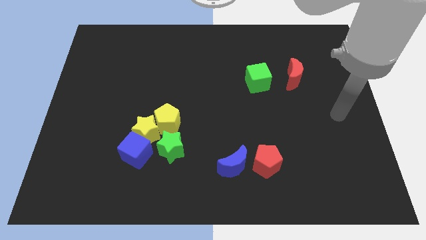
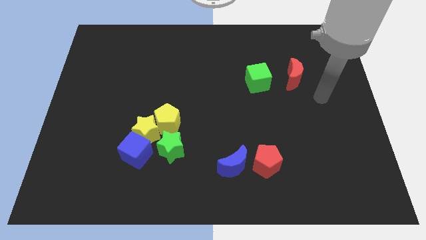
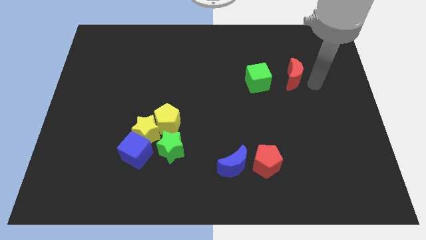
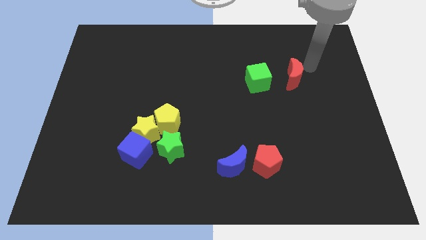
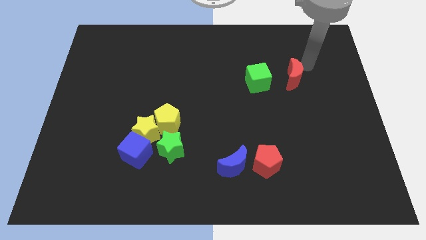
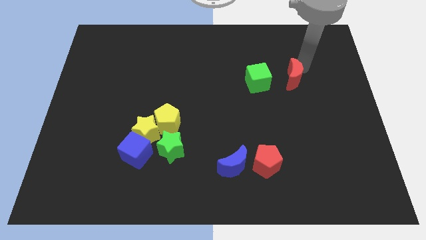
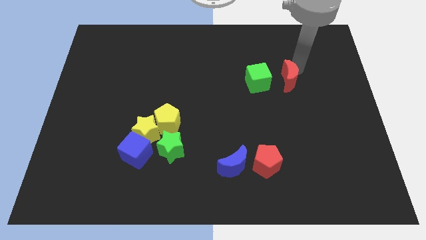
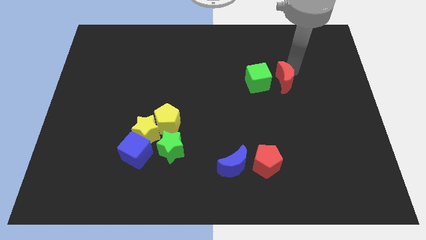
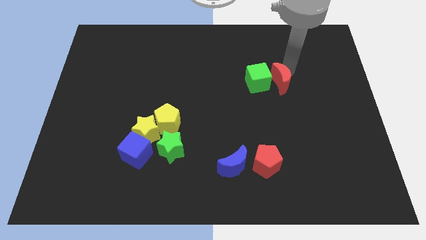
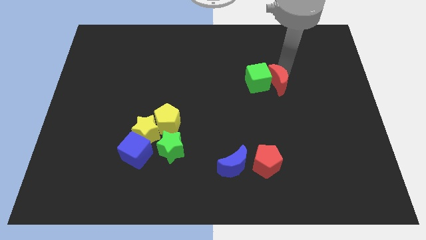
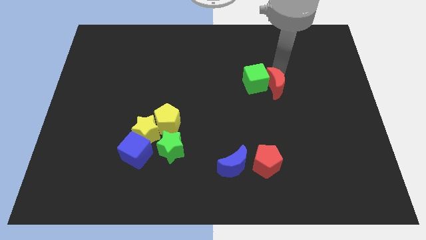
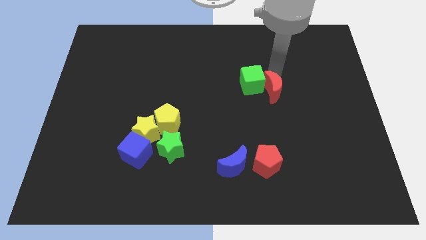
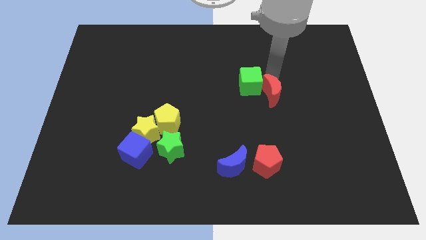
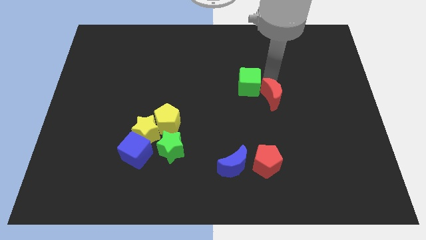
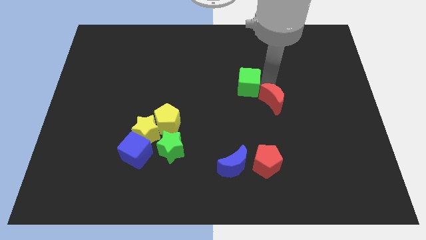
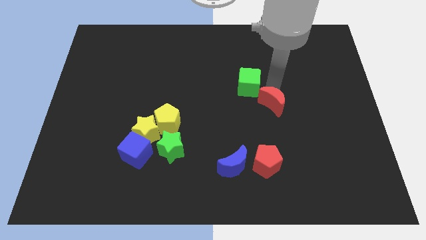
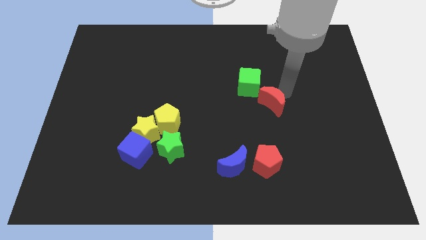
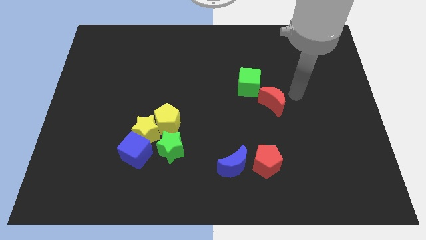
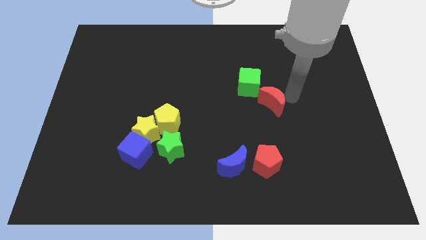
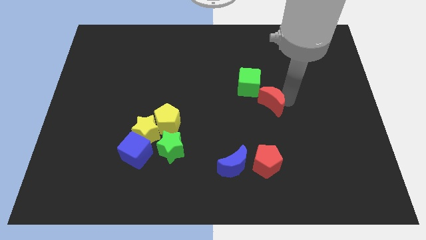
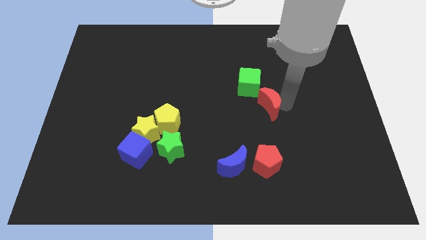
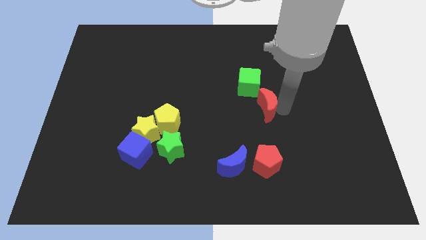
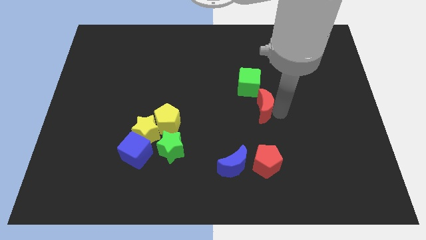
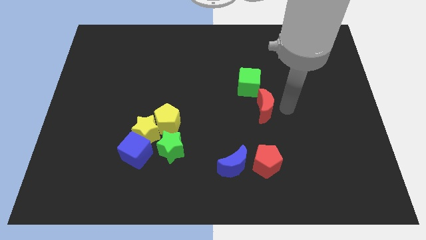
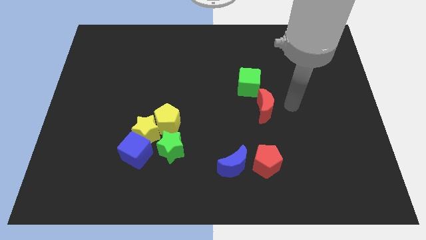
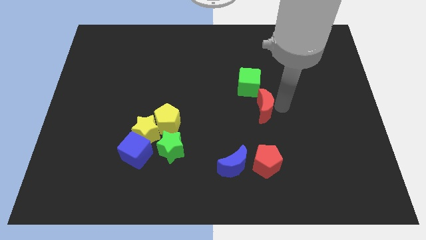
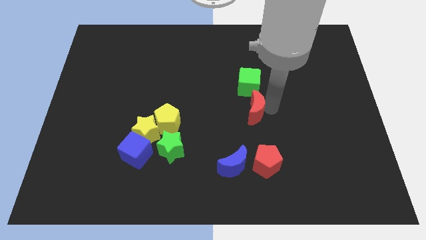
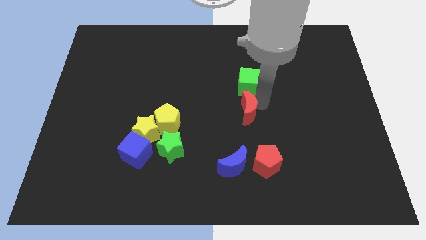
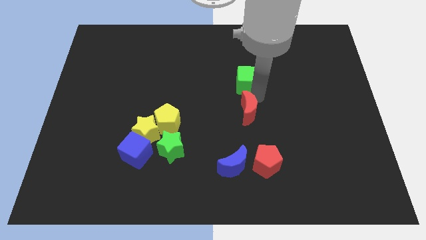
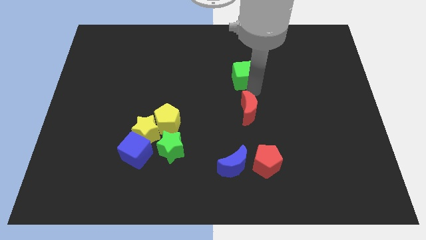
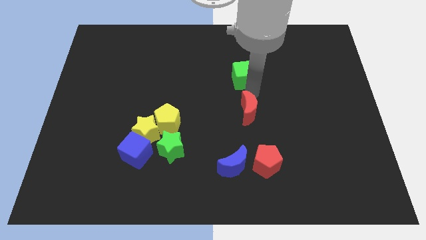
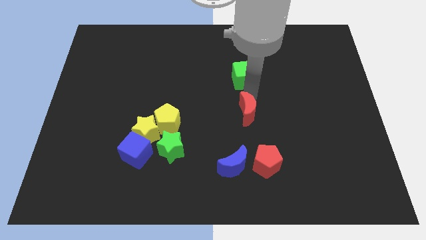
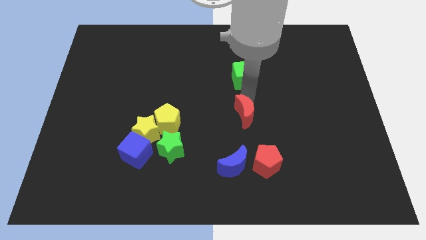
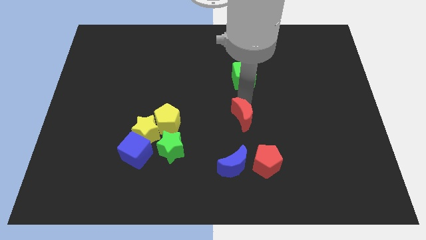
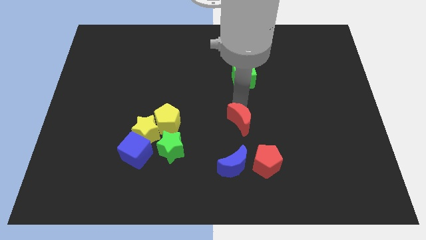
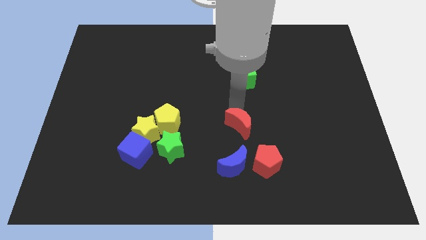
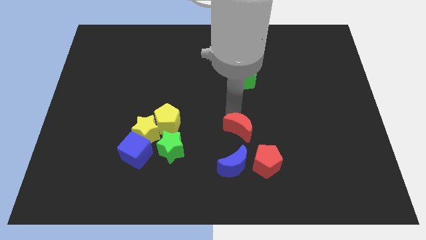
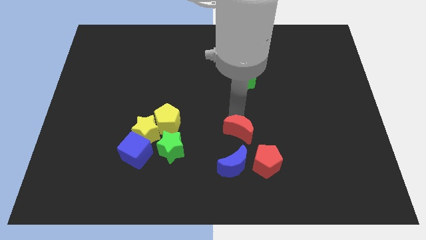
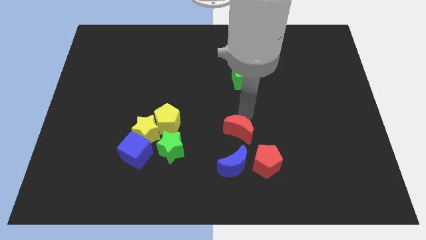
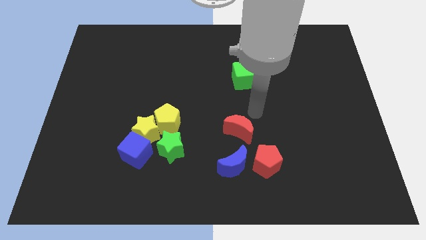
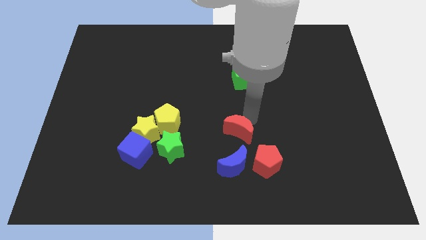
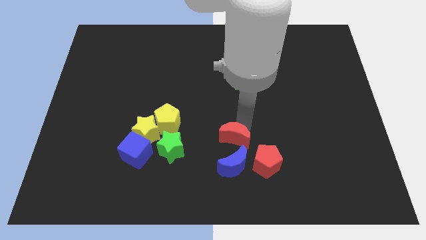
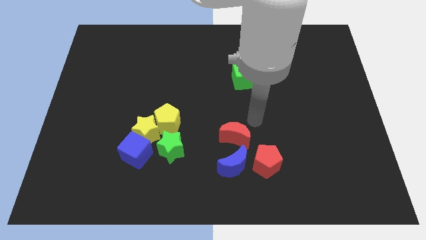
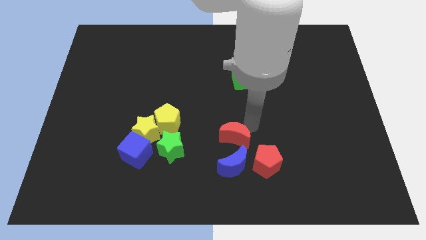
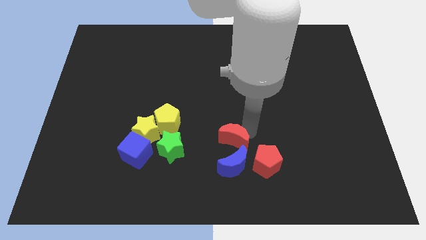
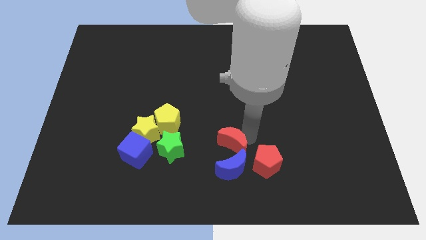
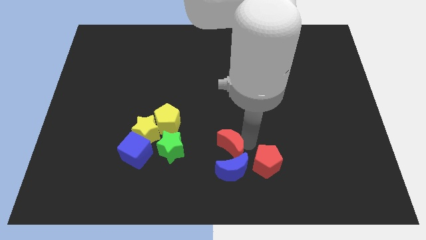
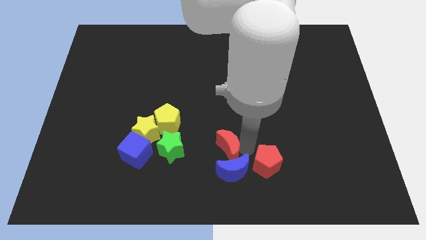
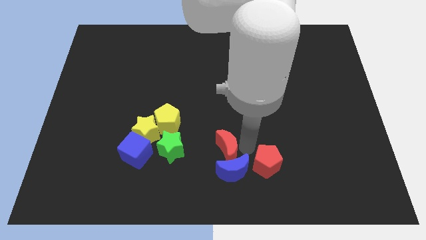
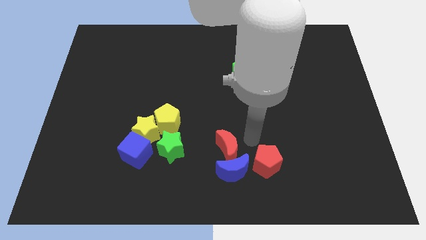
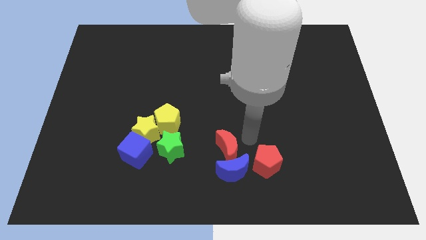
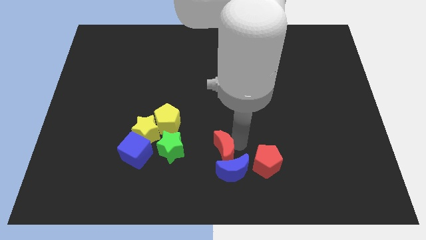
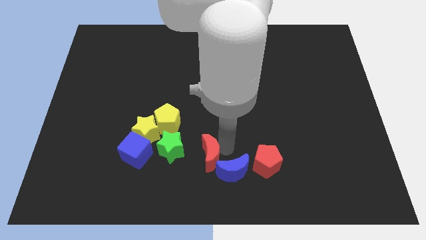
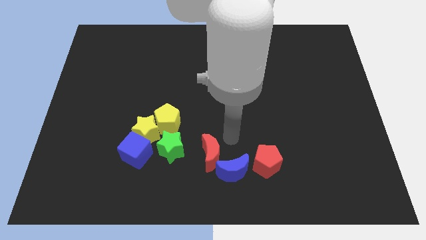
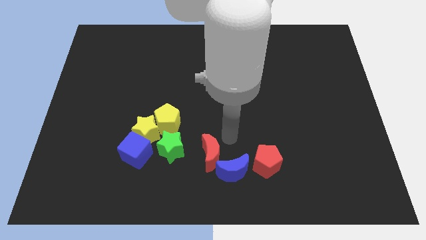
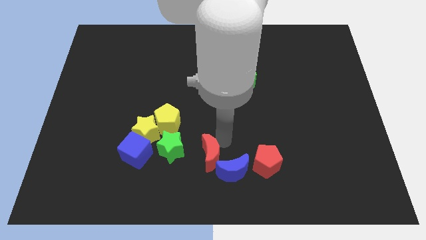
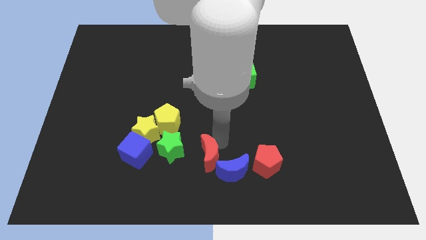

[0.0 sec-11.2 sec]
push the red moon diagonally down and to the right of the green star

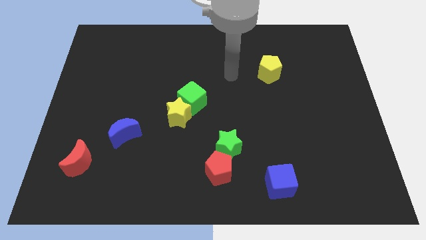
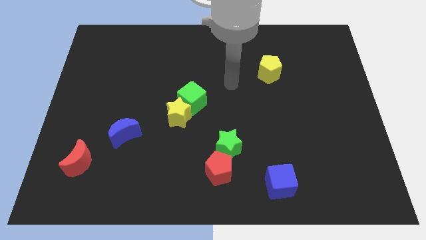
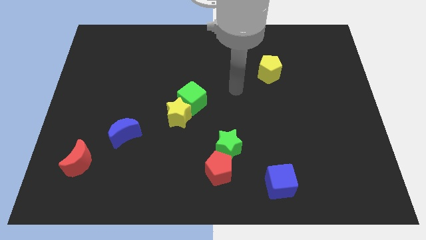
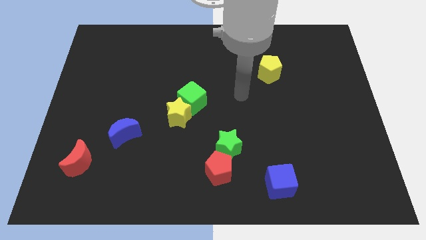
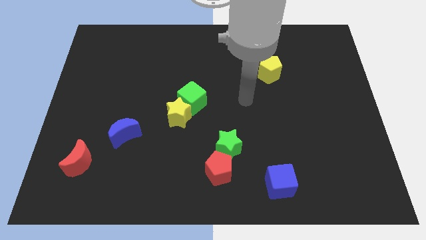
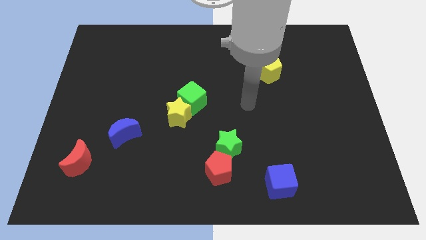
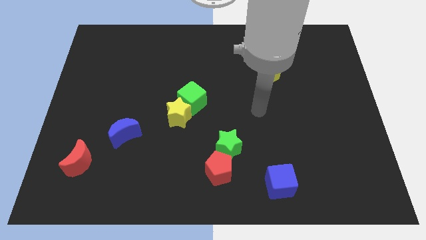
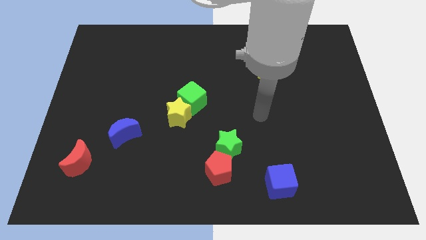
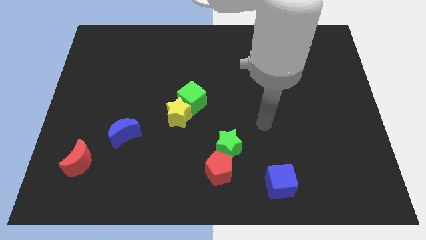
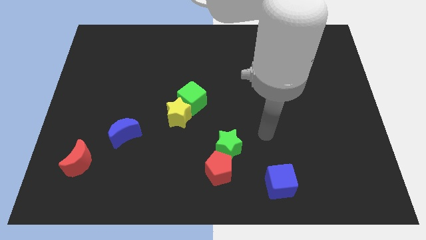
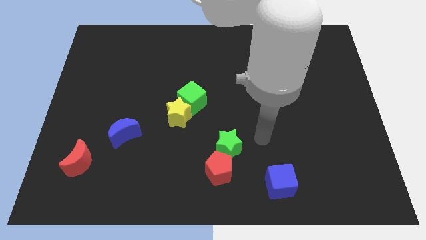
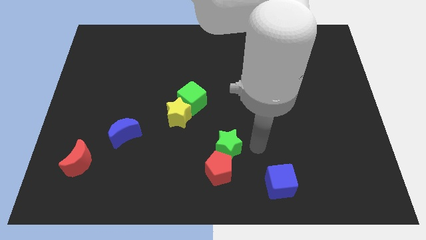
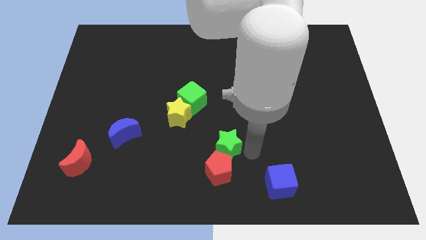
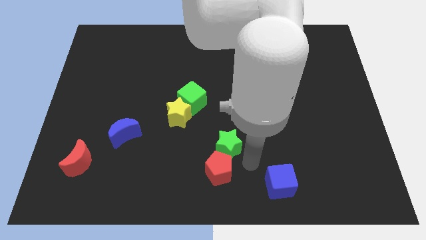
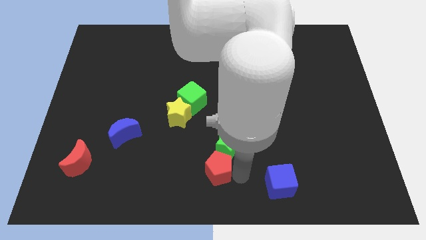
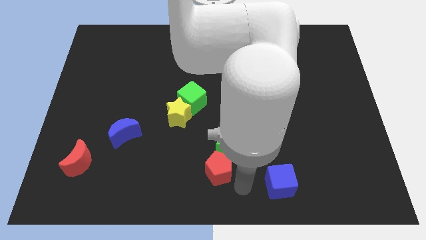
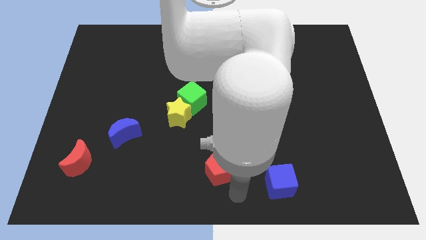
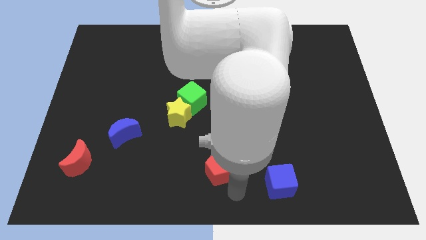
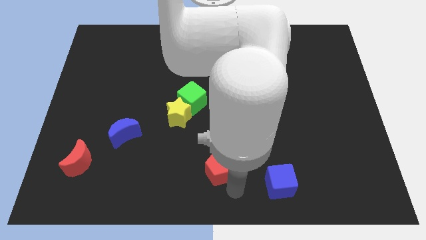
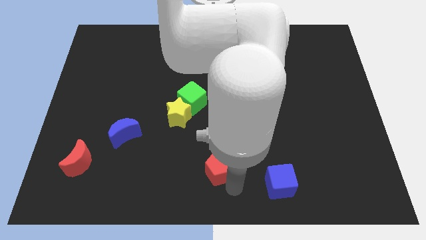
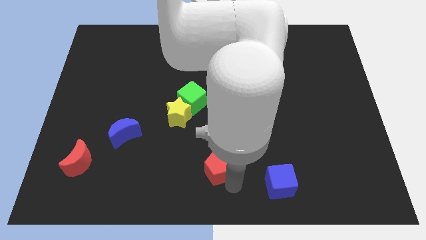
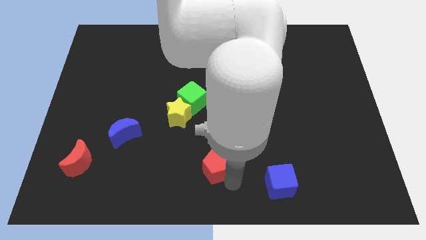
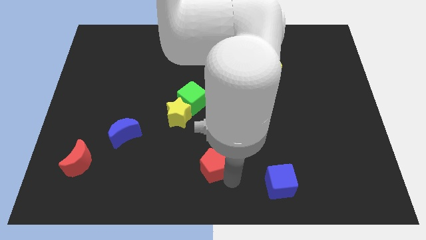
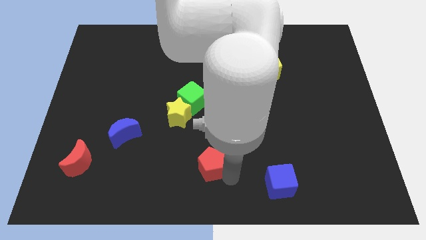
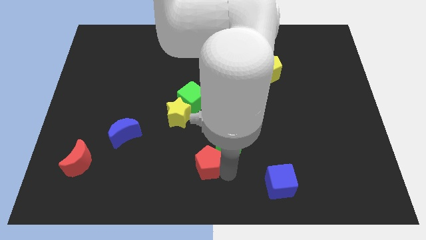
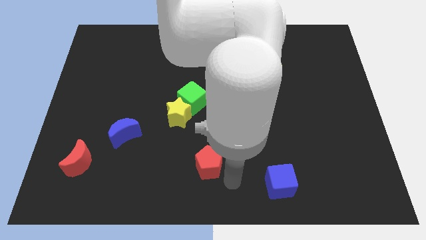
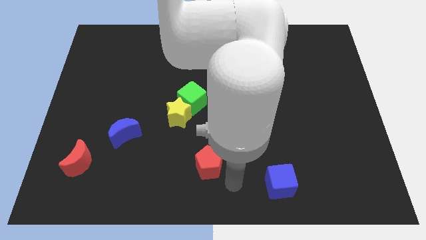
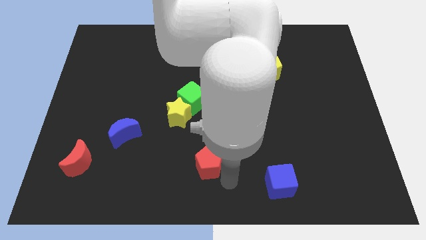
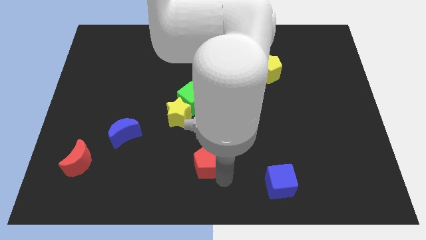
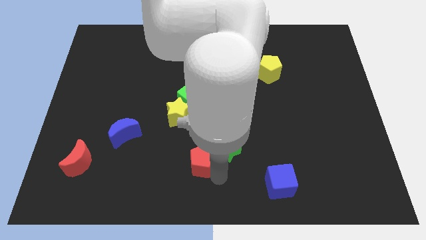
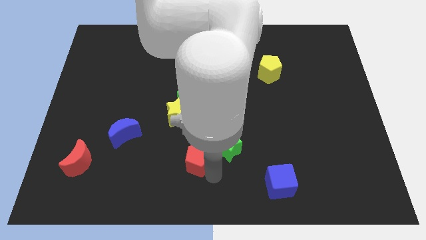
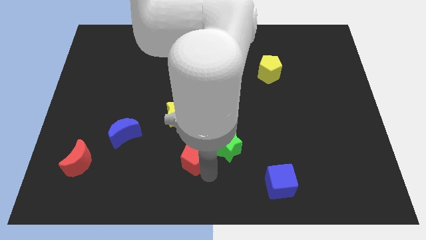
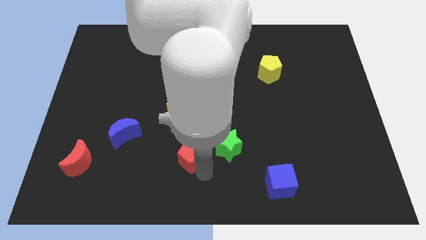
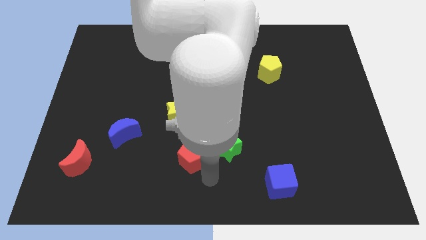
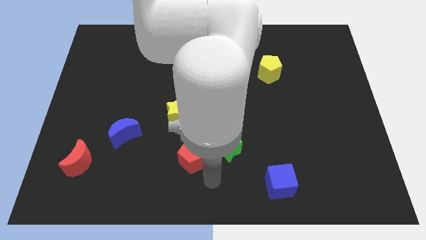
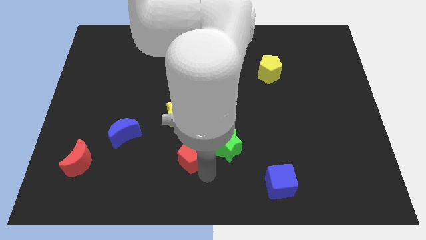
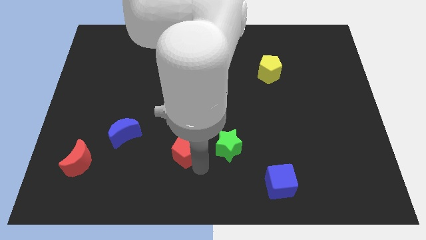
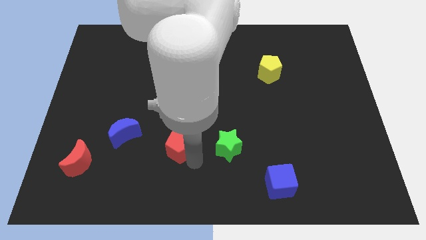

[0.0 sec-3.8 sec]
push the red pentagon to the right side of the blue moon
